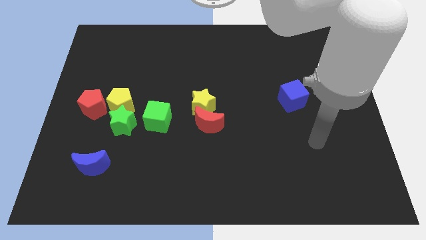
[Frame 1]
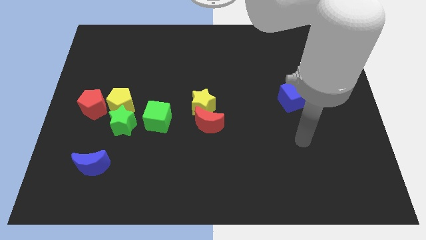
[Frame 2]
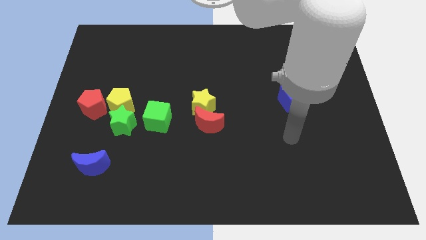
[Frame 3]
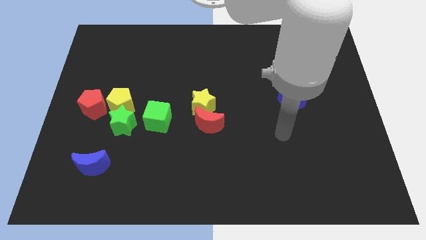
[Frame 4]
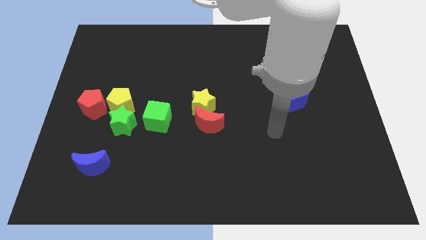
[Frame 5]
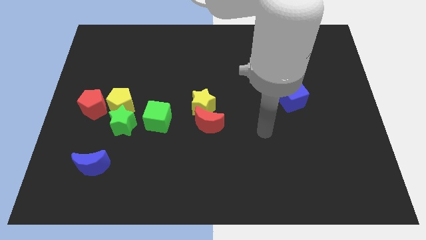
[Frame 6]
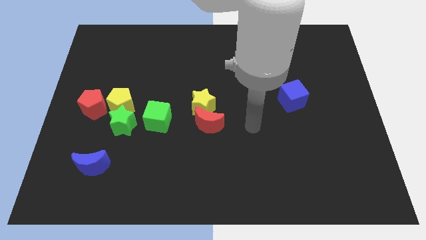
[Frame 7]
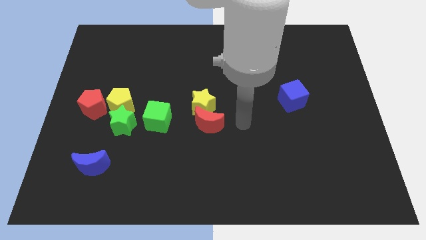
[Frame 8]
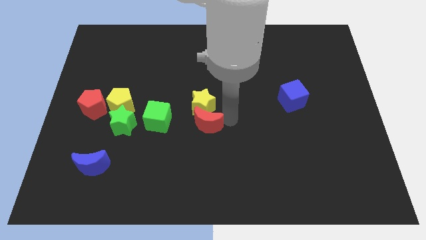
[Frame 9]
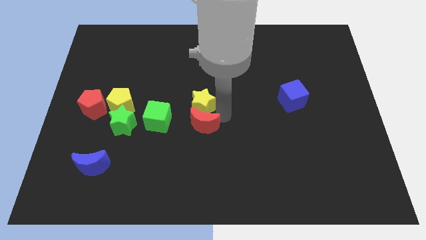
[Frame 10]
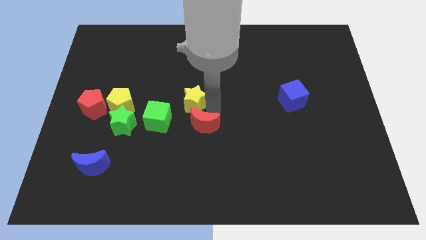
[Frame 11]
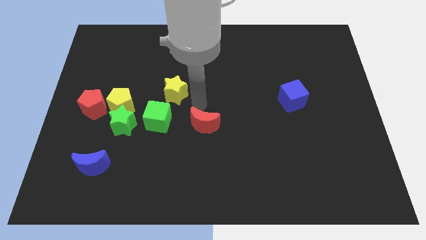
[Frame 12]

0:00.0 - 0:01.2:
move the red moon away from the yellow star

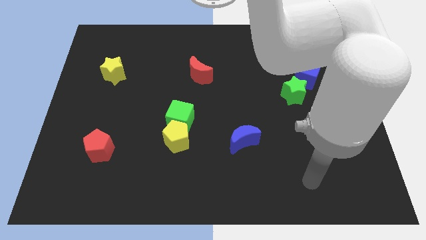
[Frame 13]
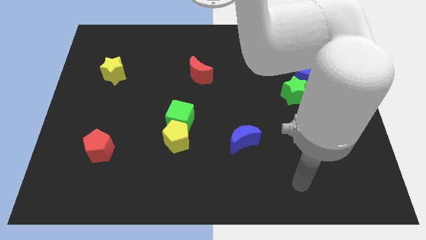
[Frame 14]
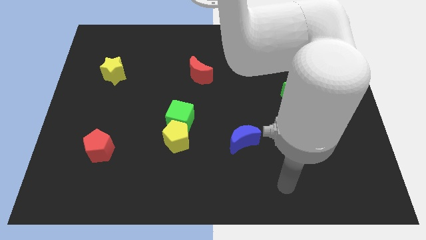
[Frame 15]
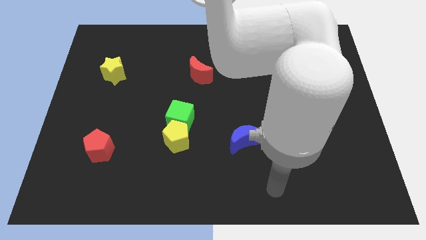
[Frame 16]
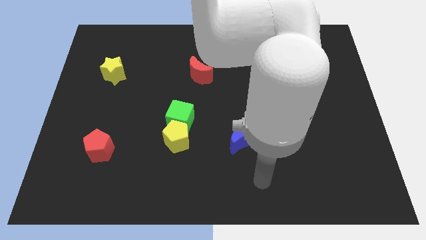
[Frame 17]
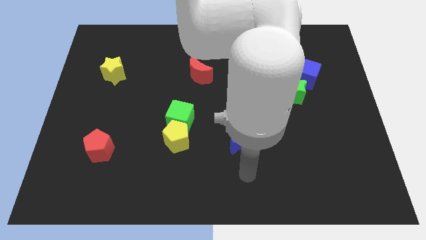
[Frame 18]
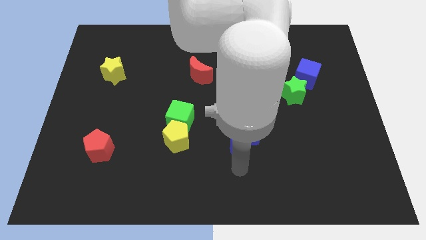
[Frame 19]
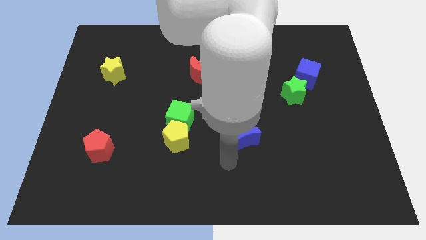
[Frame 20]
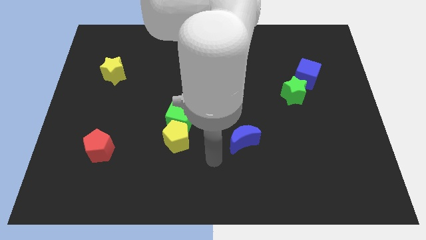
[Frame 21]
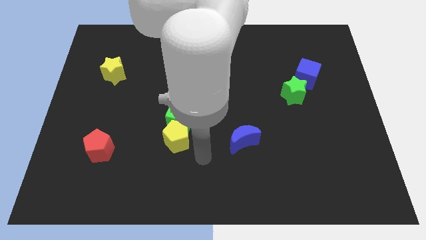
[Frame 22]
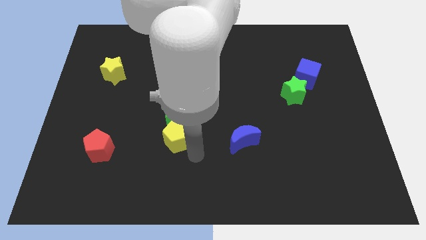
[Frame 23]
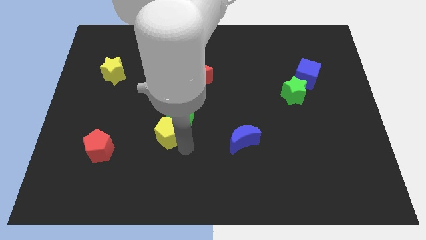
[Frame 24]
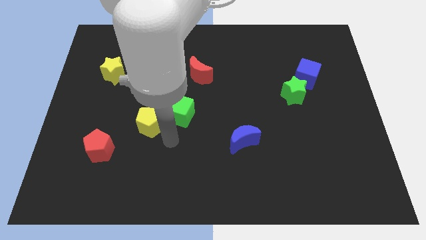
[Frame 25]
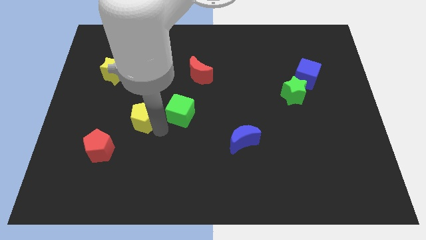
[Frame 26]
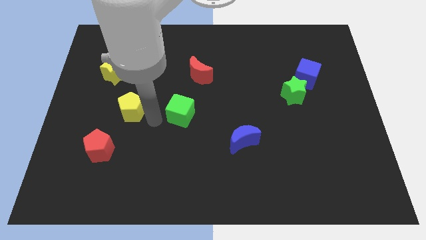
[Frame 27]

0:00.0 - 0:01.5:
move the green cube away from the yellow pentagon

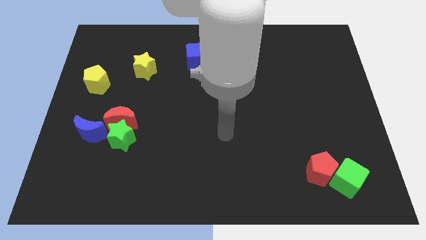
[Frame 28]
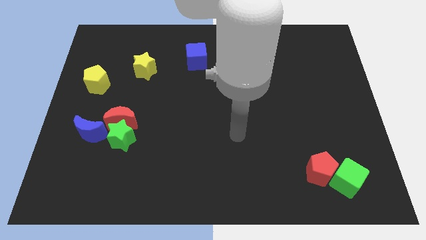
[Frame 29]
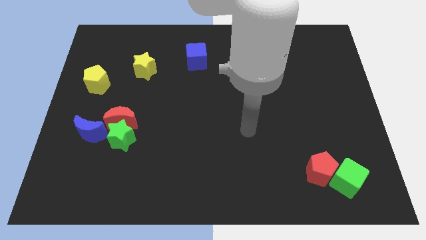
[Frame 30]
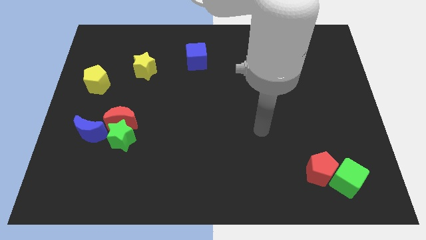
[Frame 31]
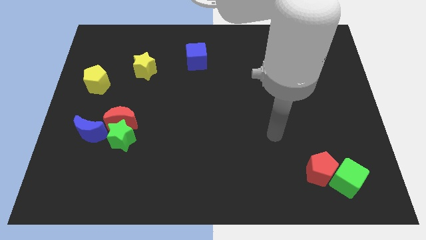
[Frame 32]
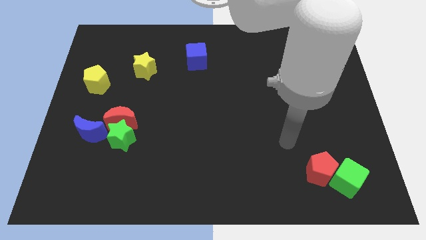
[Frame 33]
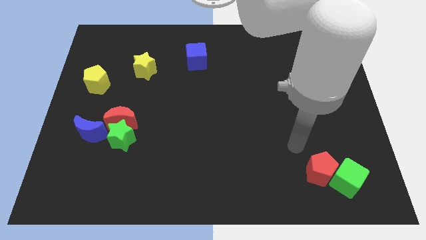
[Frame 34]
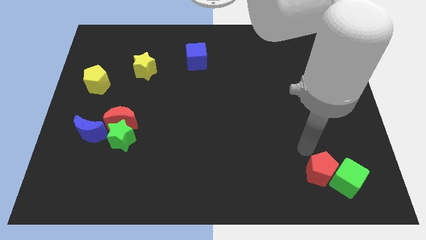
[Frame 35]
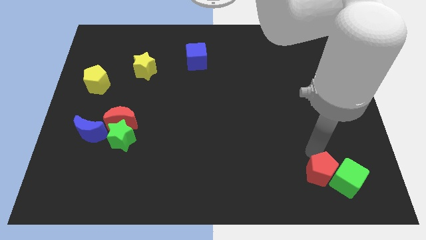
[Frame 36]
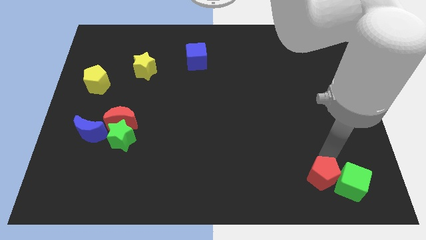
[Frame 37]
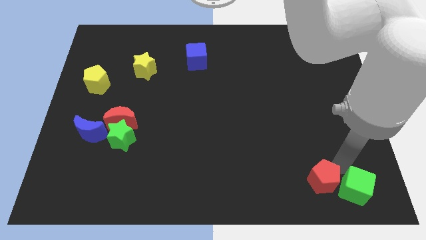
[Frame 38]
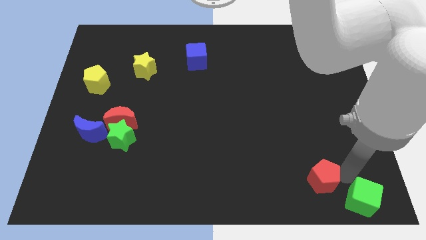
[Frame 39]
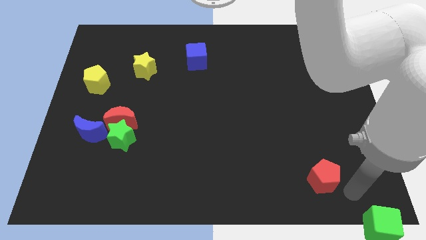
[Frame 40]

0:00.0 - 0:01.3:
move the red pentagon away from the green cube

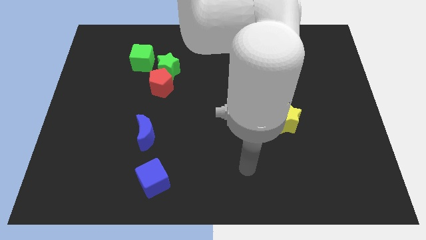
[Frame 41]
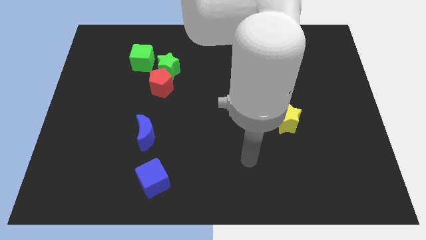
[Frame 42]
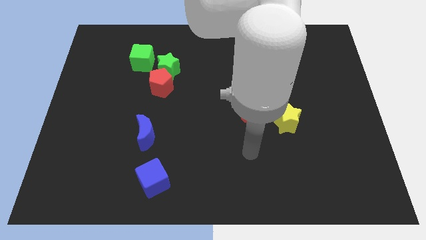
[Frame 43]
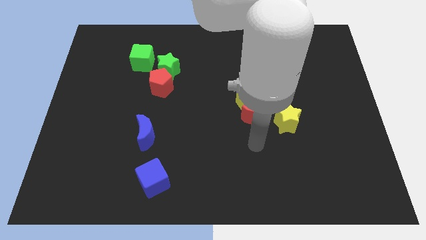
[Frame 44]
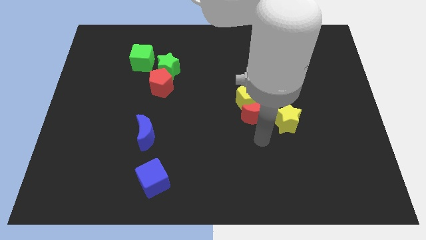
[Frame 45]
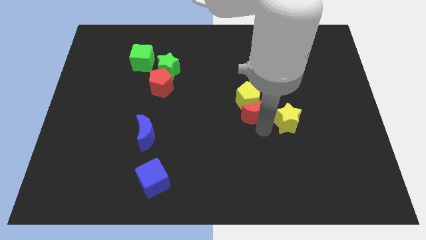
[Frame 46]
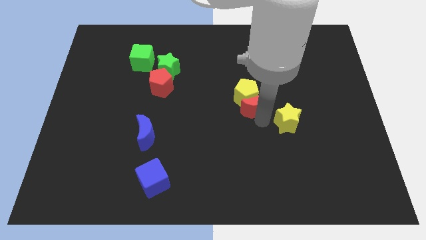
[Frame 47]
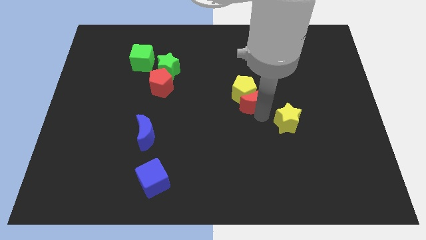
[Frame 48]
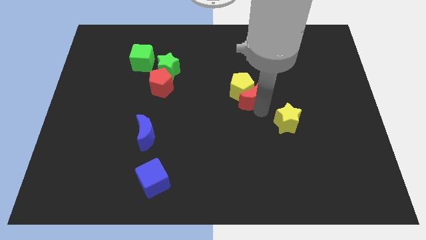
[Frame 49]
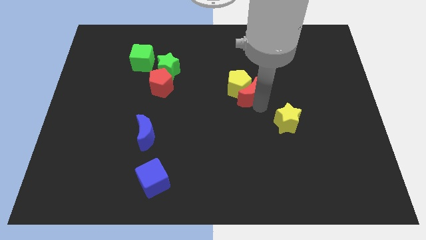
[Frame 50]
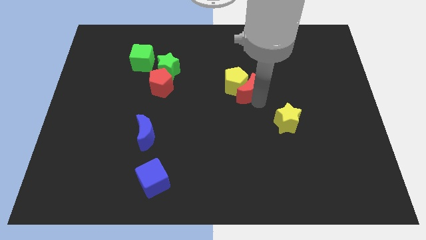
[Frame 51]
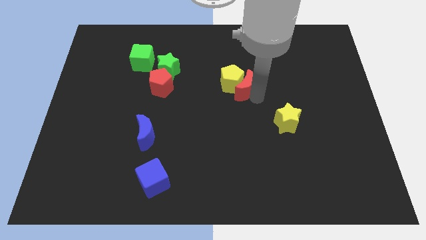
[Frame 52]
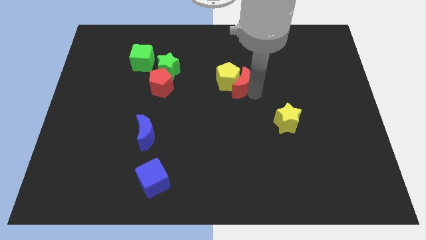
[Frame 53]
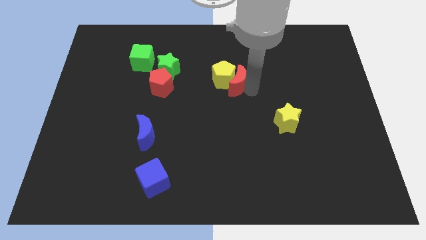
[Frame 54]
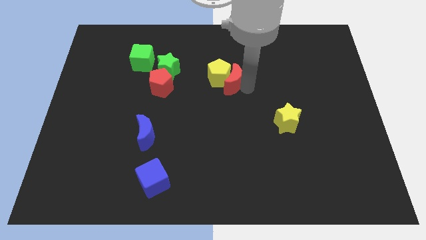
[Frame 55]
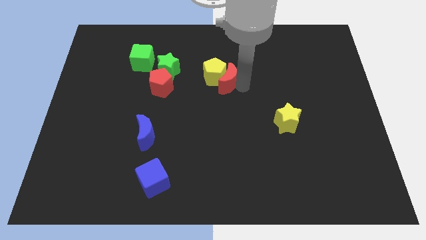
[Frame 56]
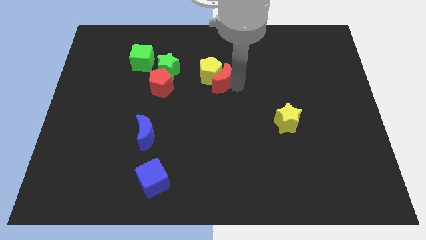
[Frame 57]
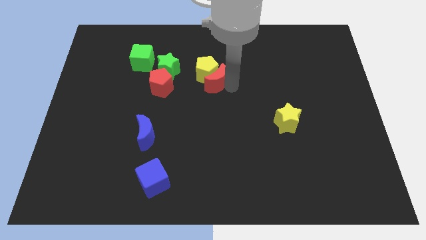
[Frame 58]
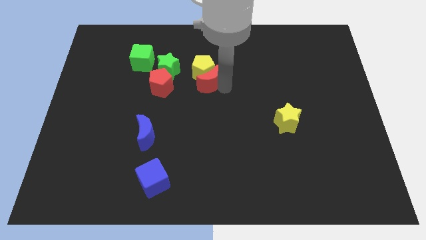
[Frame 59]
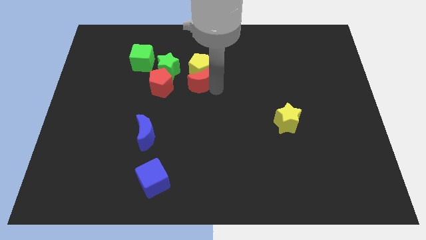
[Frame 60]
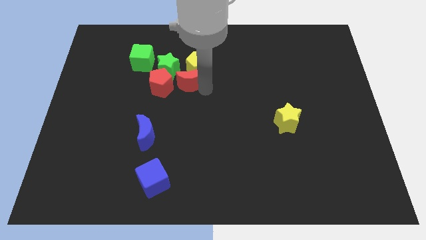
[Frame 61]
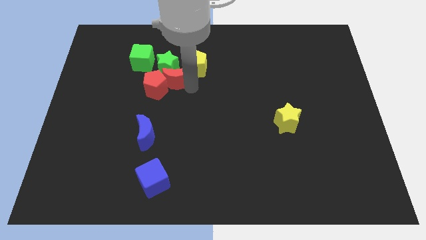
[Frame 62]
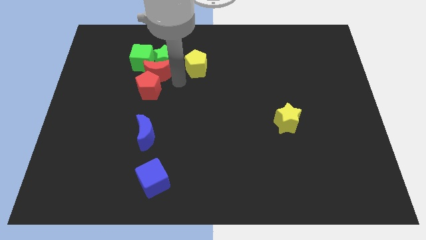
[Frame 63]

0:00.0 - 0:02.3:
move the yellow pentagon away from the red moon

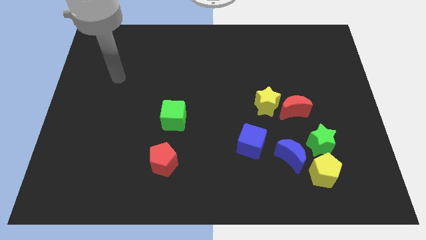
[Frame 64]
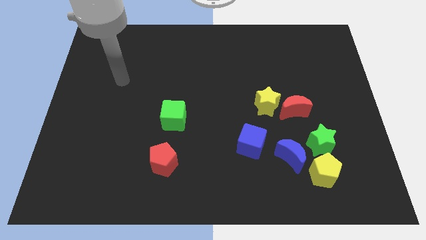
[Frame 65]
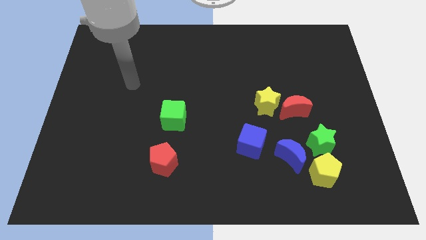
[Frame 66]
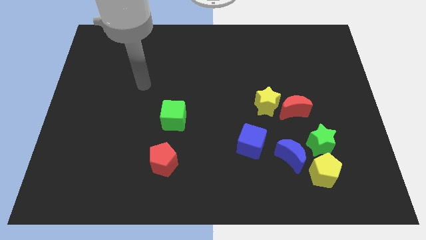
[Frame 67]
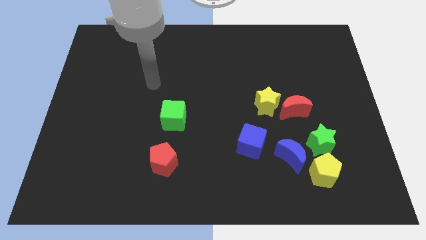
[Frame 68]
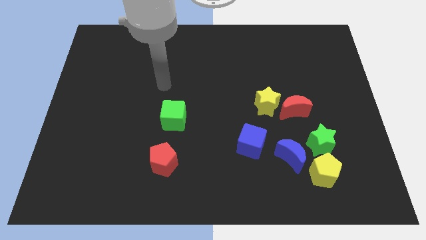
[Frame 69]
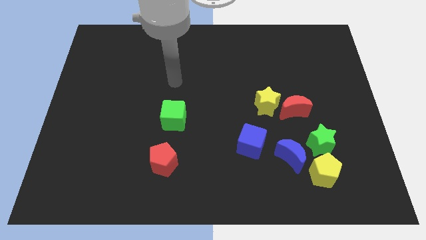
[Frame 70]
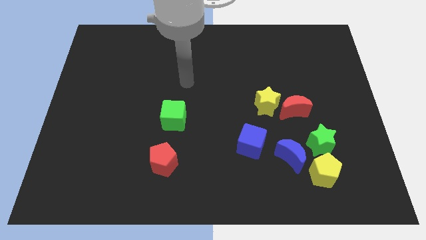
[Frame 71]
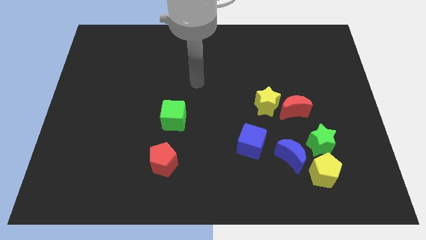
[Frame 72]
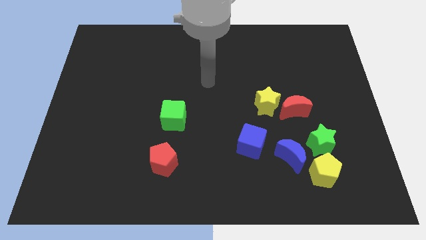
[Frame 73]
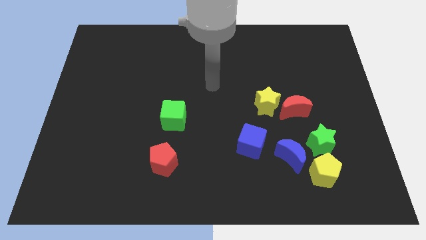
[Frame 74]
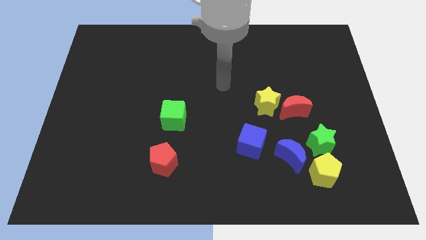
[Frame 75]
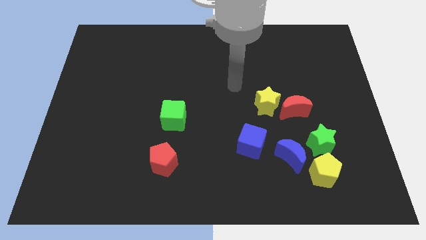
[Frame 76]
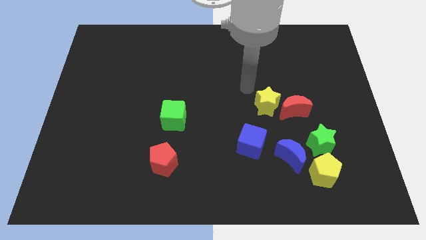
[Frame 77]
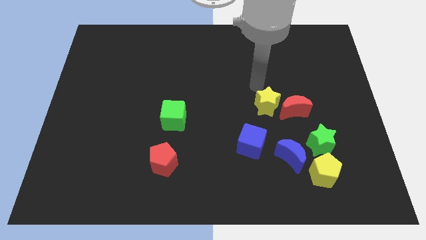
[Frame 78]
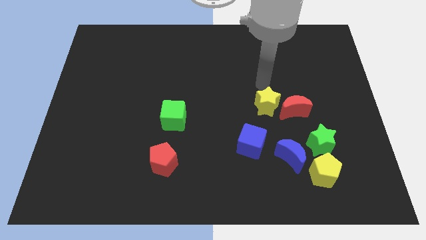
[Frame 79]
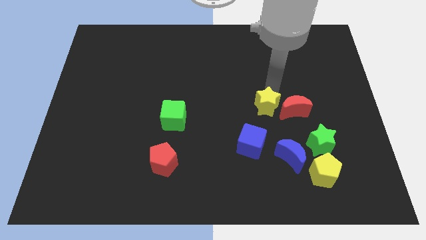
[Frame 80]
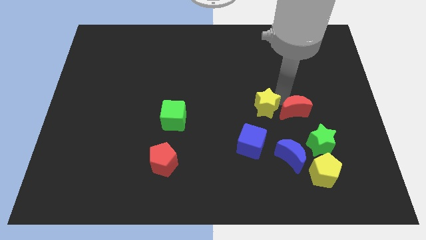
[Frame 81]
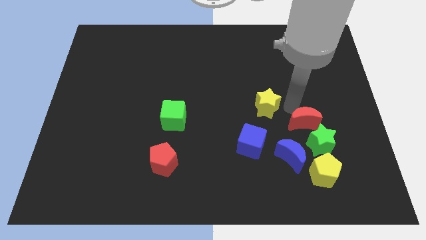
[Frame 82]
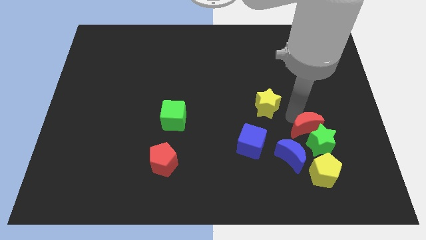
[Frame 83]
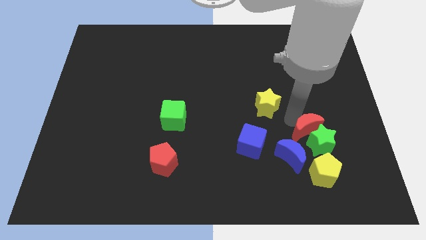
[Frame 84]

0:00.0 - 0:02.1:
pull the yellow star apart from the red moon

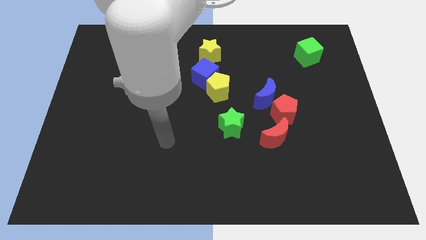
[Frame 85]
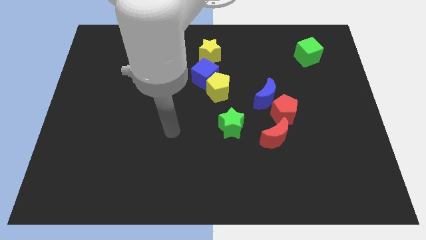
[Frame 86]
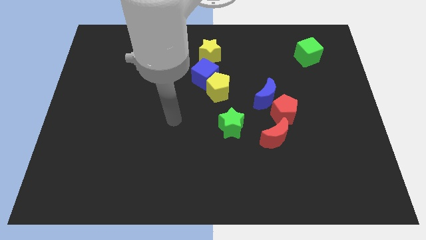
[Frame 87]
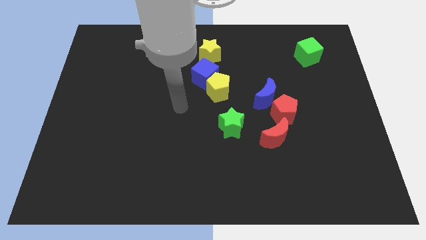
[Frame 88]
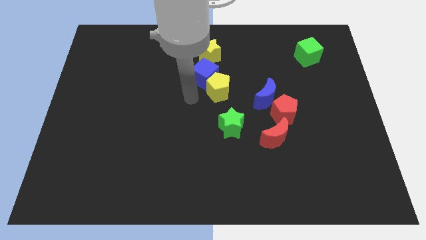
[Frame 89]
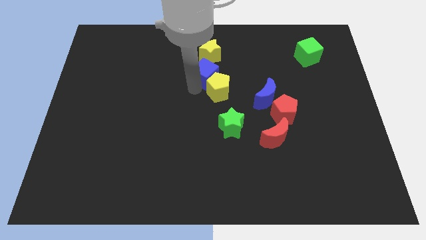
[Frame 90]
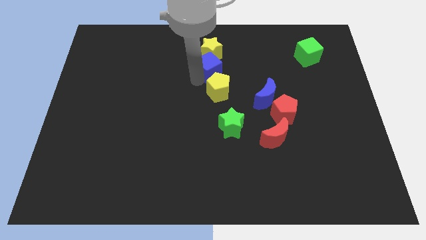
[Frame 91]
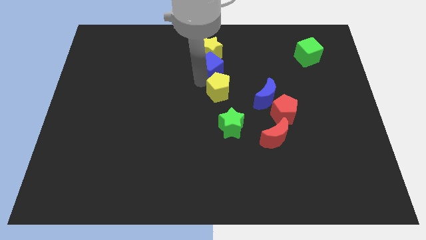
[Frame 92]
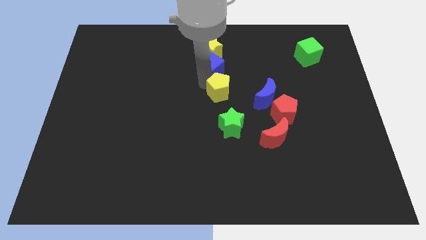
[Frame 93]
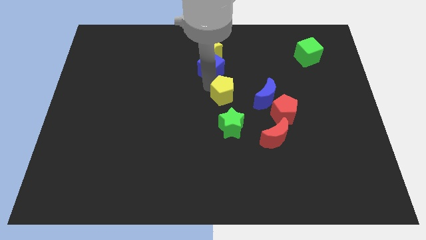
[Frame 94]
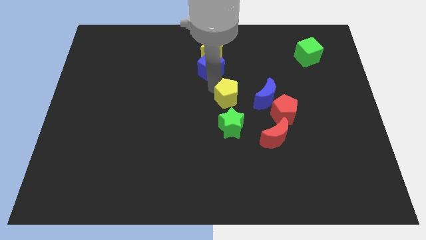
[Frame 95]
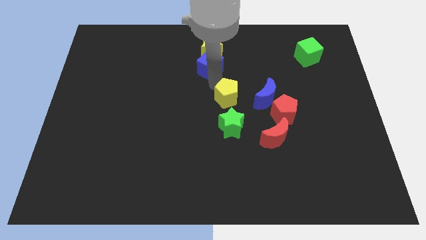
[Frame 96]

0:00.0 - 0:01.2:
move the yellow pentagon away from the blue cube
